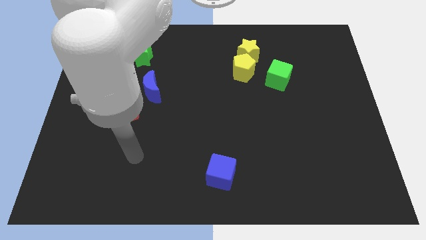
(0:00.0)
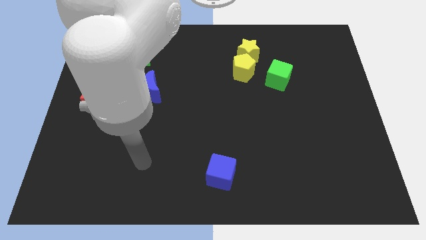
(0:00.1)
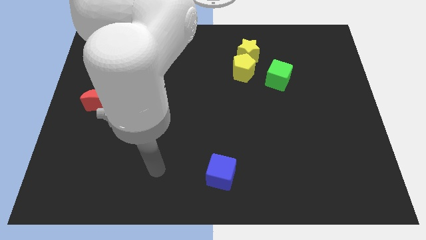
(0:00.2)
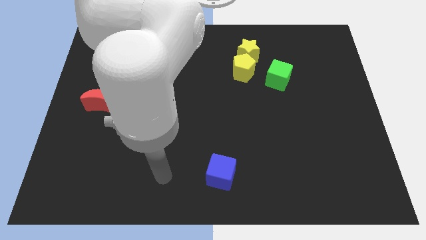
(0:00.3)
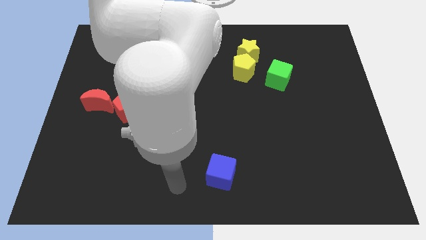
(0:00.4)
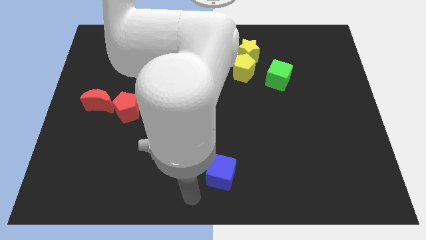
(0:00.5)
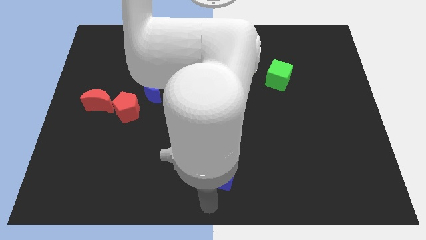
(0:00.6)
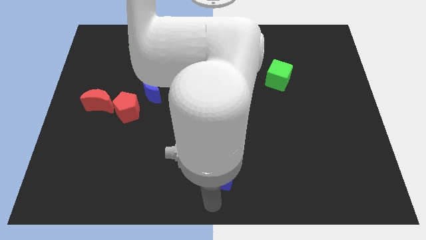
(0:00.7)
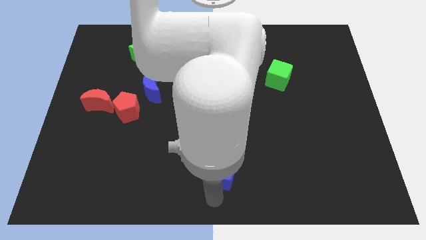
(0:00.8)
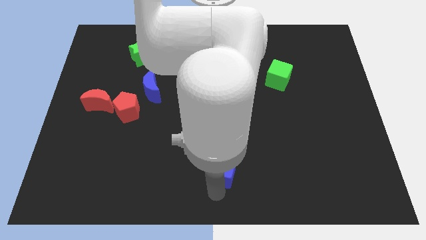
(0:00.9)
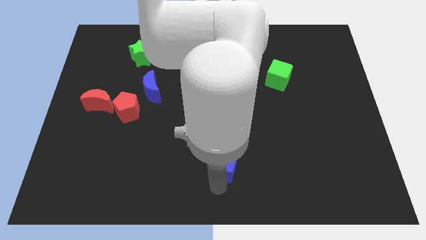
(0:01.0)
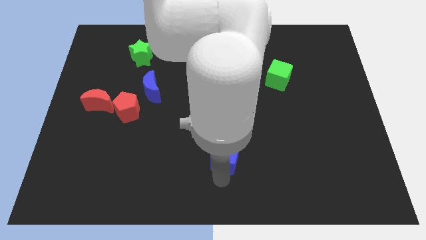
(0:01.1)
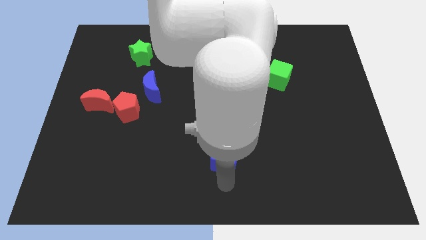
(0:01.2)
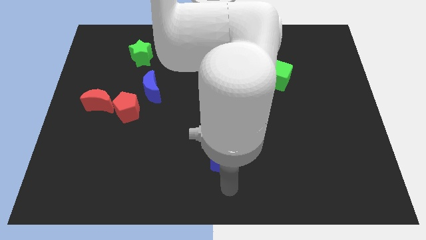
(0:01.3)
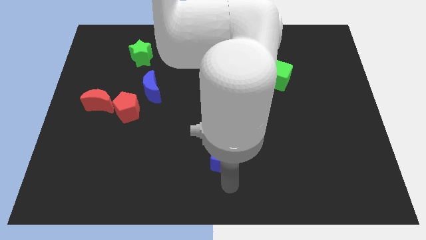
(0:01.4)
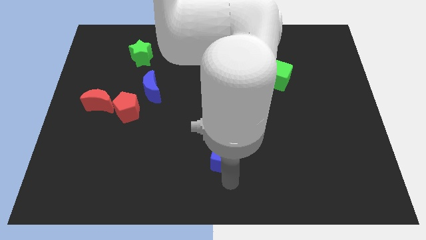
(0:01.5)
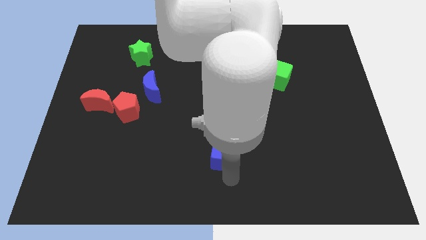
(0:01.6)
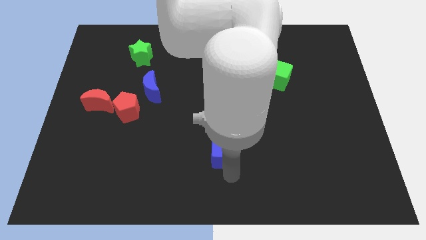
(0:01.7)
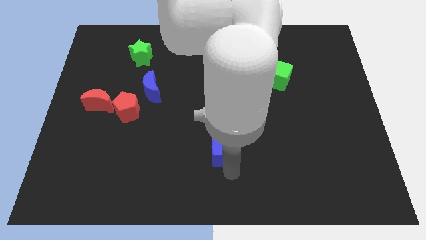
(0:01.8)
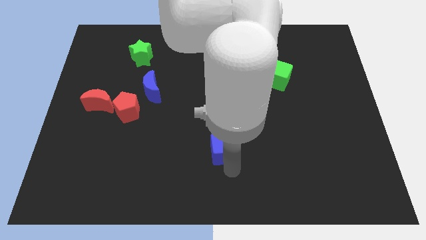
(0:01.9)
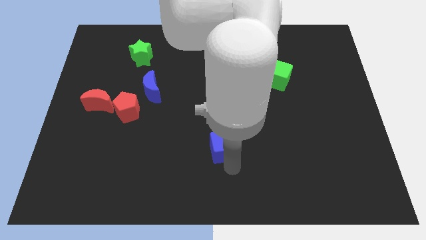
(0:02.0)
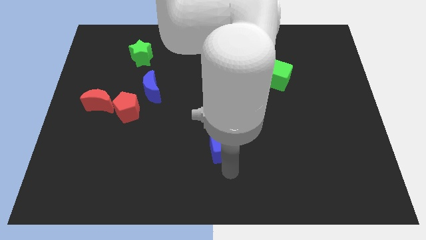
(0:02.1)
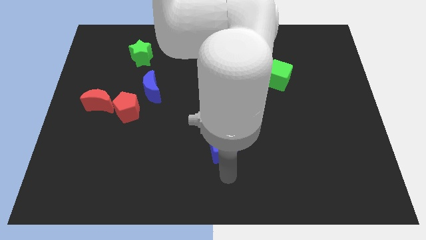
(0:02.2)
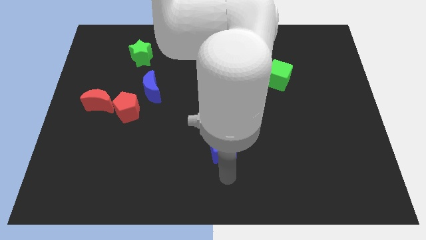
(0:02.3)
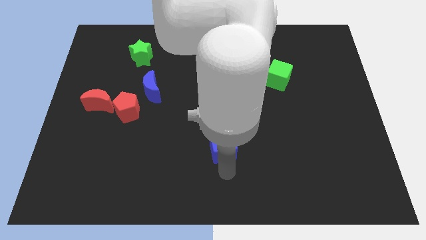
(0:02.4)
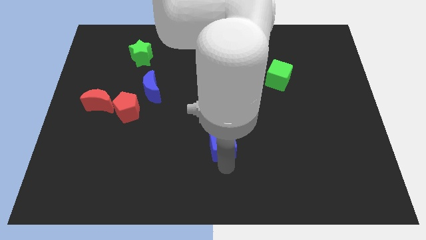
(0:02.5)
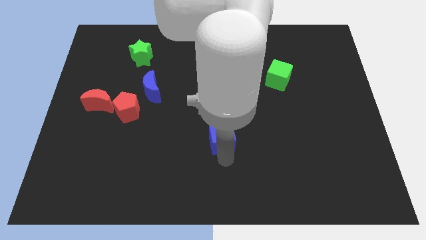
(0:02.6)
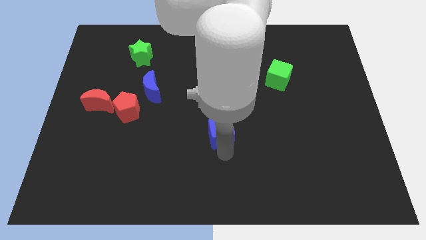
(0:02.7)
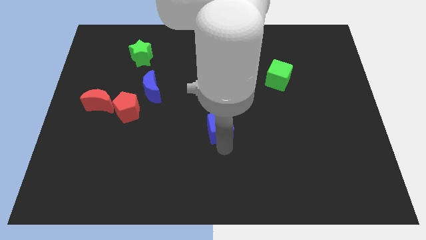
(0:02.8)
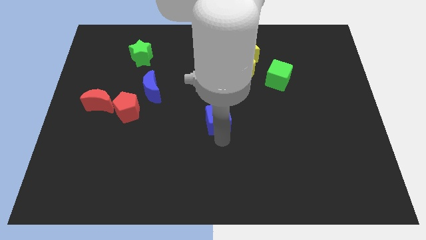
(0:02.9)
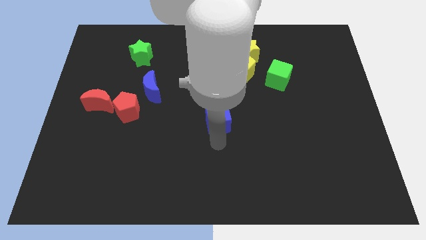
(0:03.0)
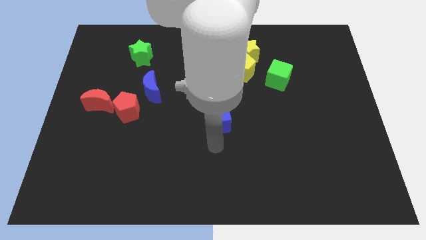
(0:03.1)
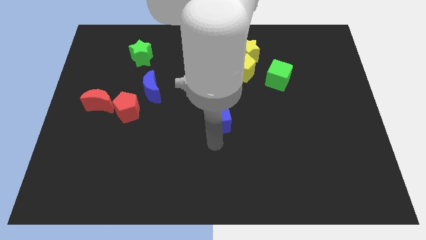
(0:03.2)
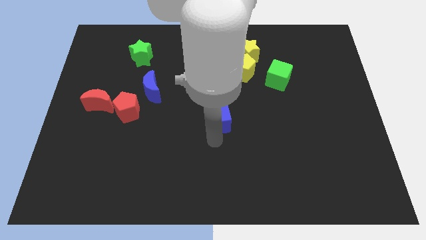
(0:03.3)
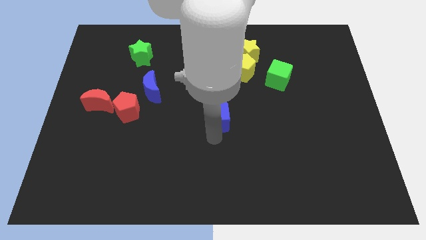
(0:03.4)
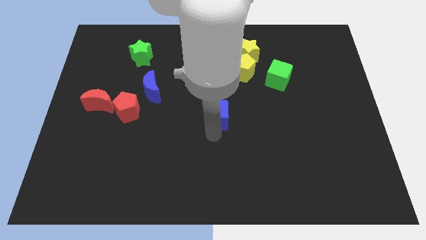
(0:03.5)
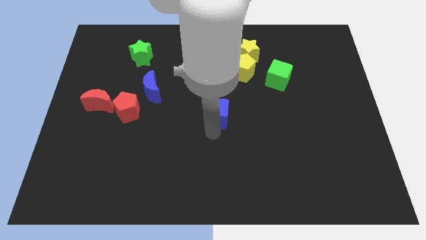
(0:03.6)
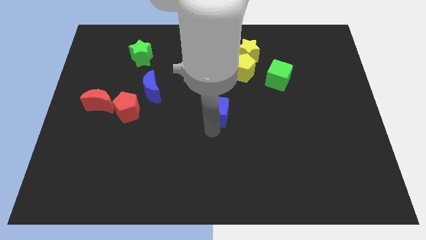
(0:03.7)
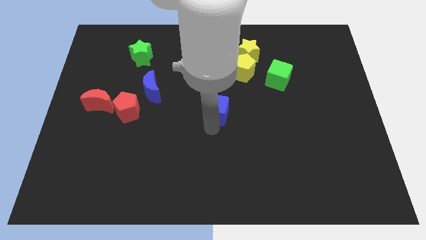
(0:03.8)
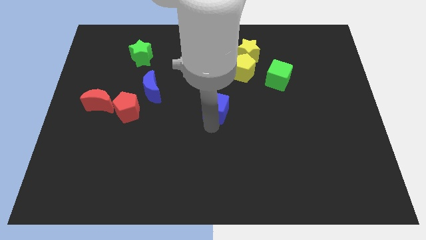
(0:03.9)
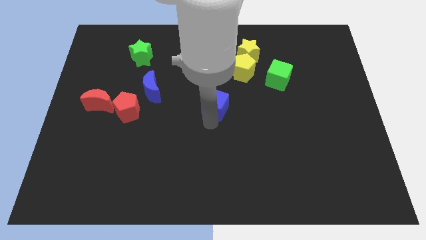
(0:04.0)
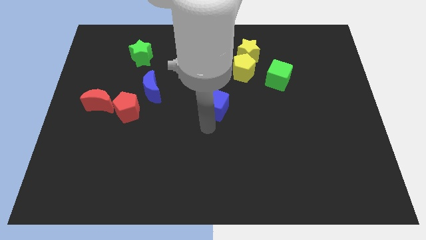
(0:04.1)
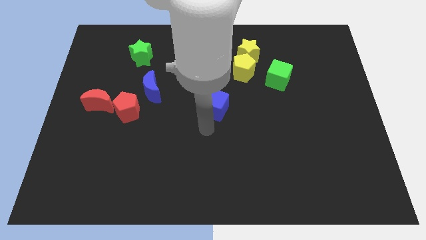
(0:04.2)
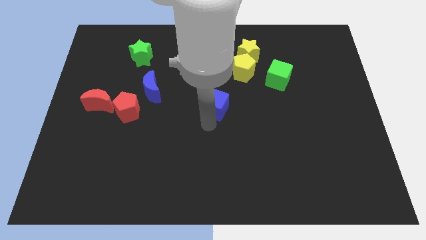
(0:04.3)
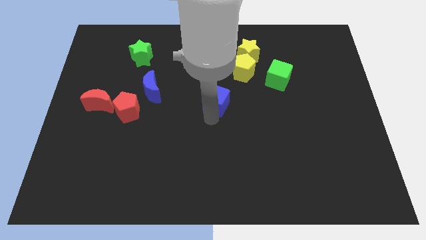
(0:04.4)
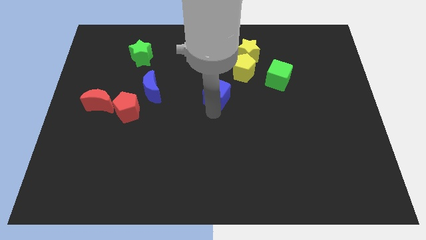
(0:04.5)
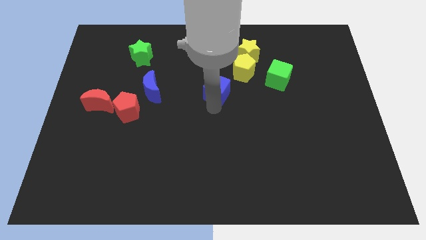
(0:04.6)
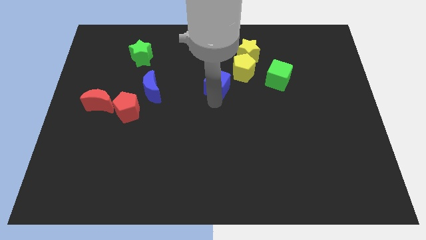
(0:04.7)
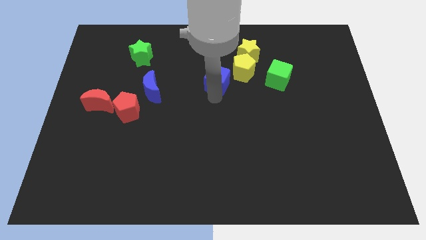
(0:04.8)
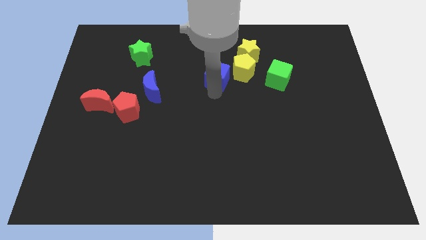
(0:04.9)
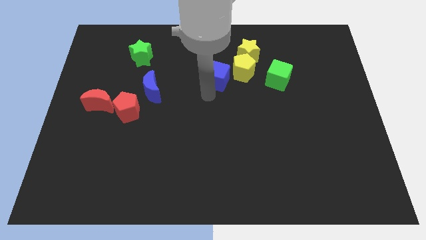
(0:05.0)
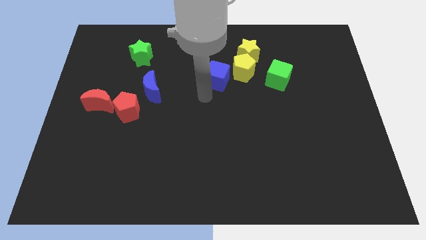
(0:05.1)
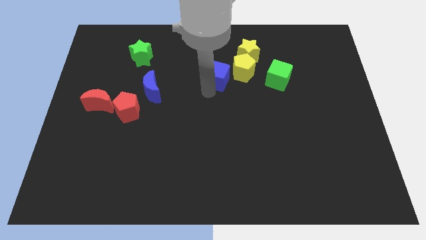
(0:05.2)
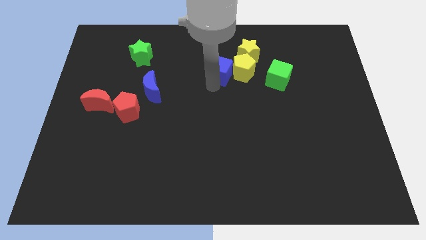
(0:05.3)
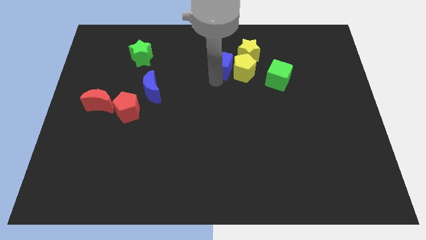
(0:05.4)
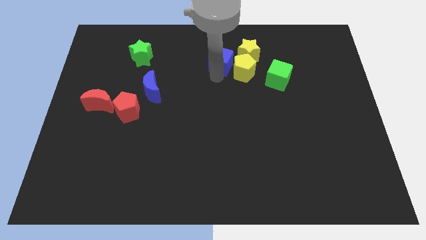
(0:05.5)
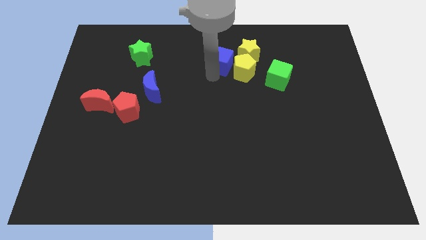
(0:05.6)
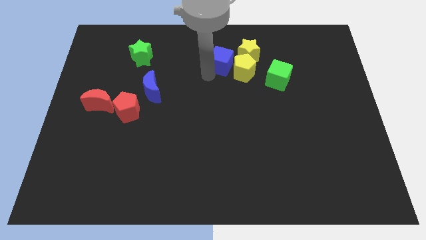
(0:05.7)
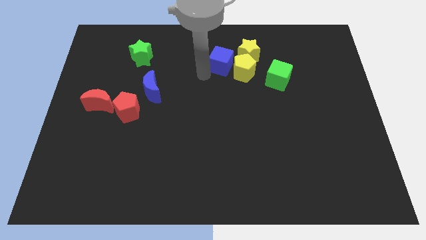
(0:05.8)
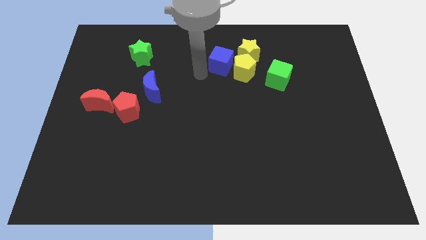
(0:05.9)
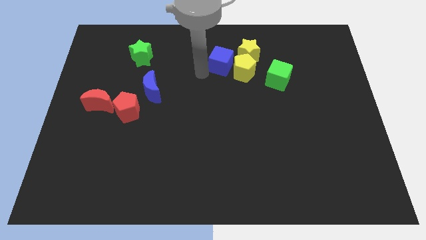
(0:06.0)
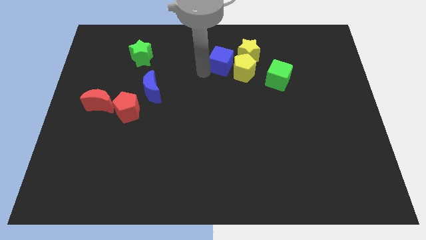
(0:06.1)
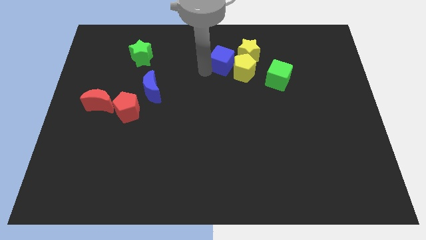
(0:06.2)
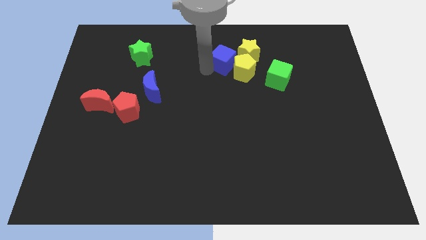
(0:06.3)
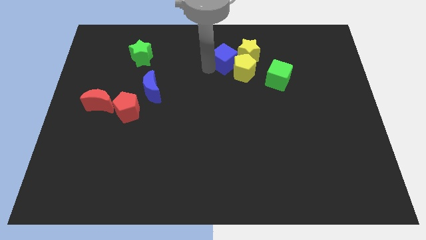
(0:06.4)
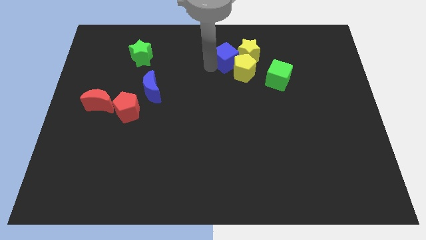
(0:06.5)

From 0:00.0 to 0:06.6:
push the blue cube close to the yellow star

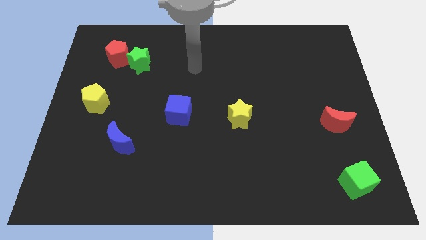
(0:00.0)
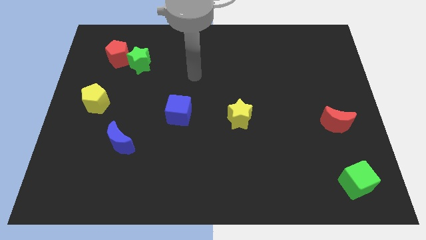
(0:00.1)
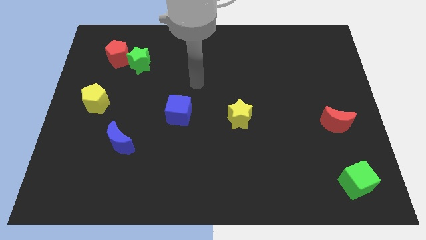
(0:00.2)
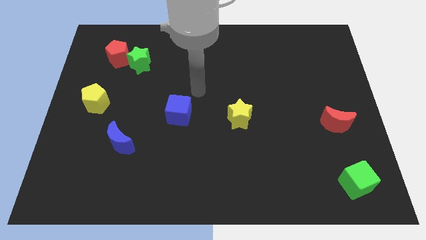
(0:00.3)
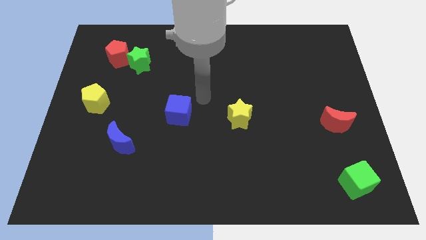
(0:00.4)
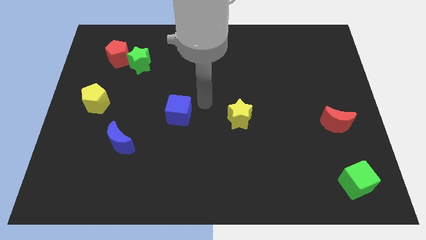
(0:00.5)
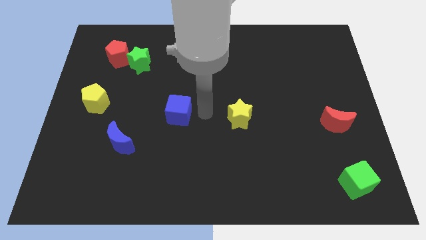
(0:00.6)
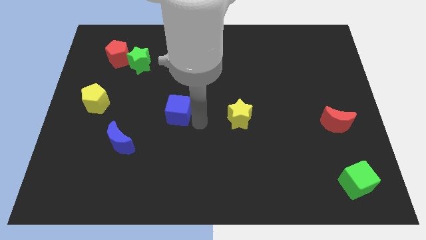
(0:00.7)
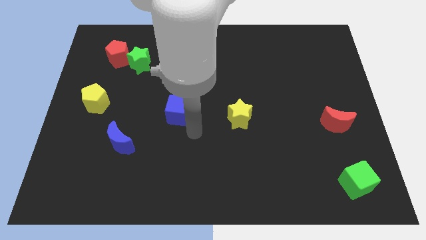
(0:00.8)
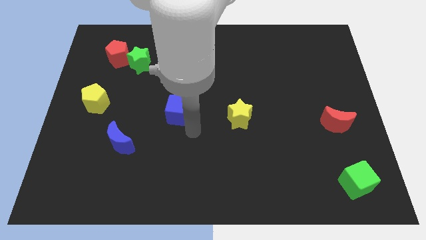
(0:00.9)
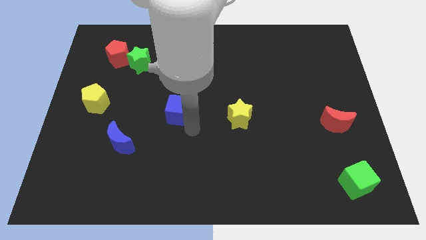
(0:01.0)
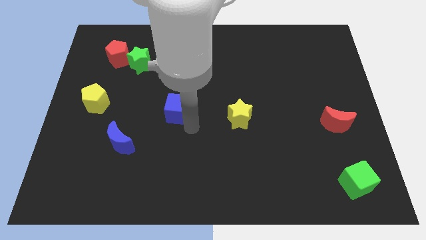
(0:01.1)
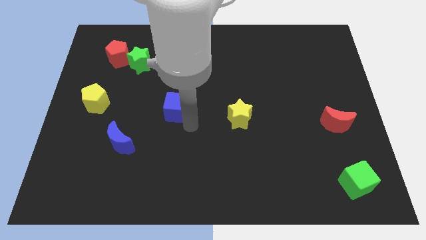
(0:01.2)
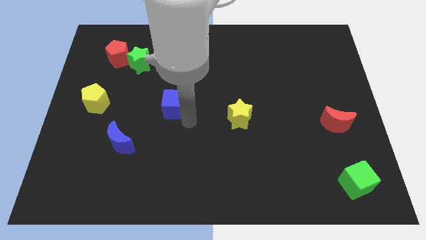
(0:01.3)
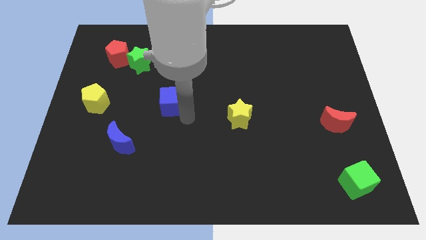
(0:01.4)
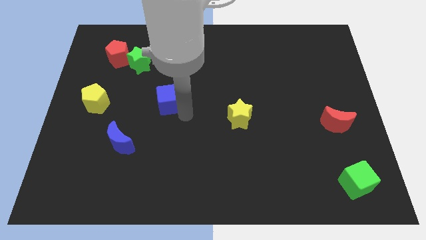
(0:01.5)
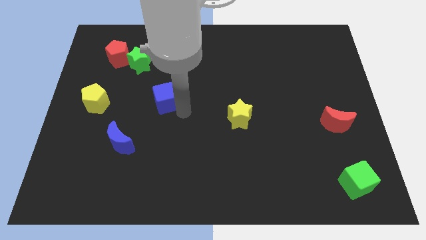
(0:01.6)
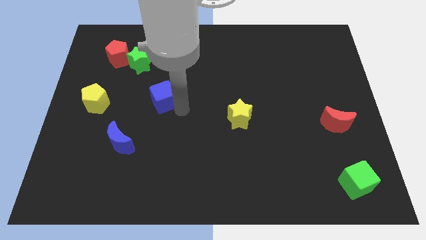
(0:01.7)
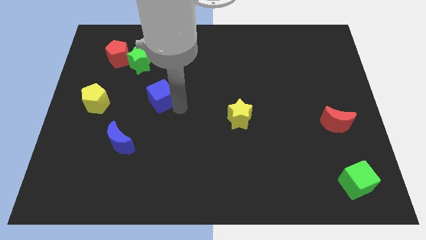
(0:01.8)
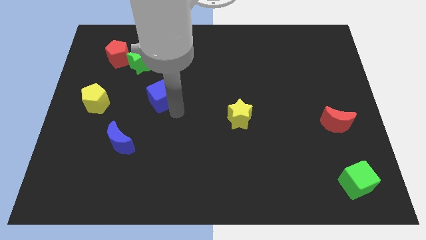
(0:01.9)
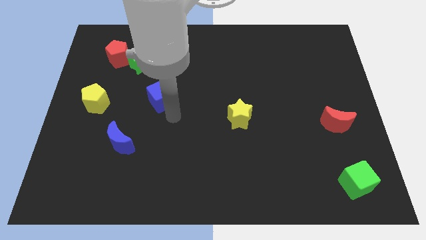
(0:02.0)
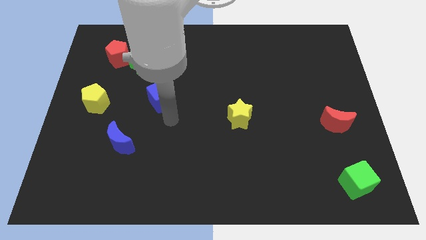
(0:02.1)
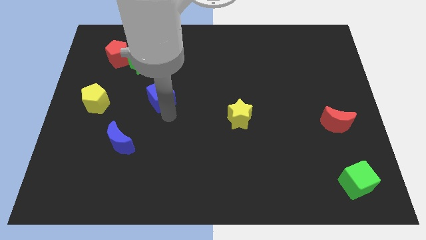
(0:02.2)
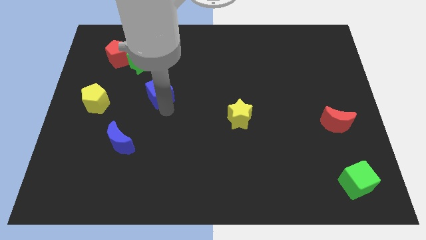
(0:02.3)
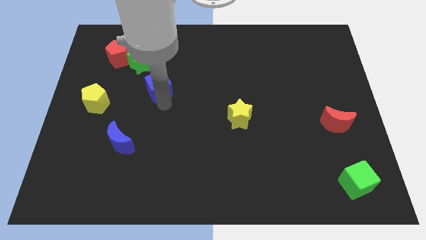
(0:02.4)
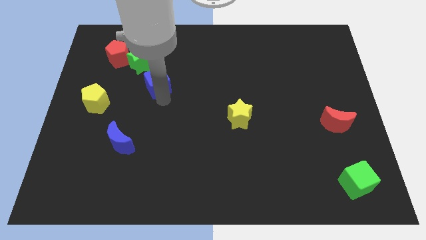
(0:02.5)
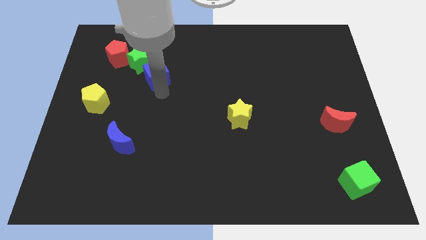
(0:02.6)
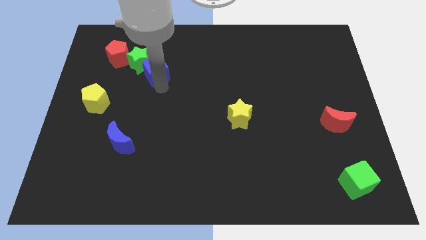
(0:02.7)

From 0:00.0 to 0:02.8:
push the blue cube next to the green star
